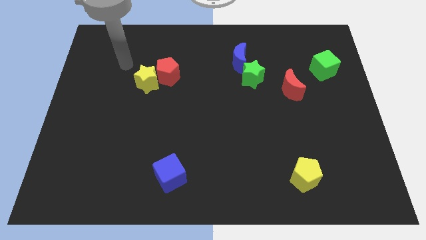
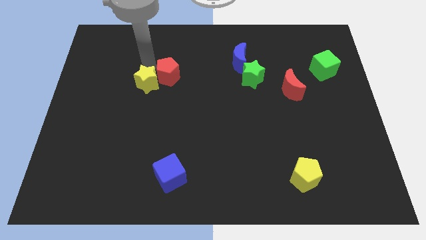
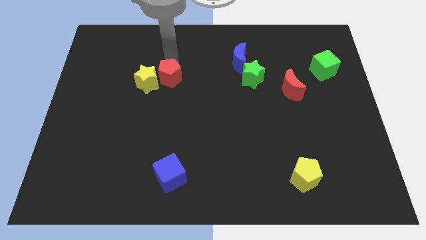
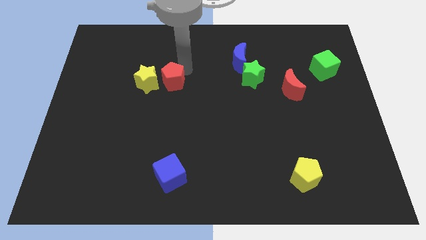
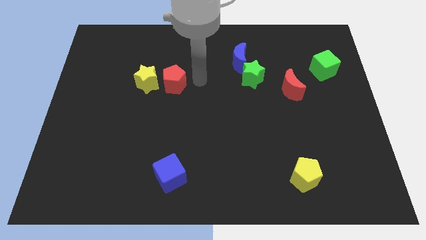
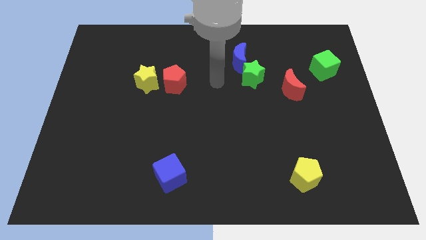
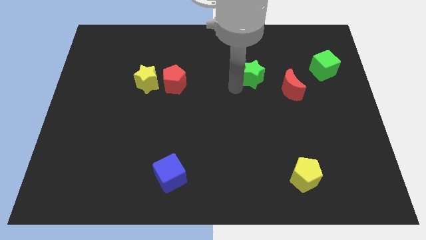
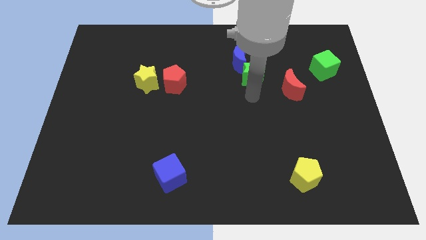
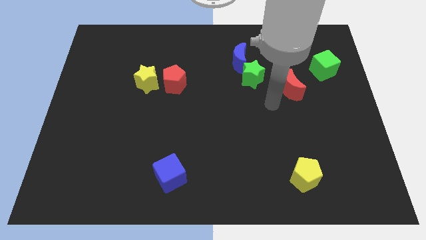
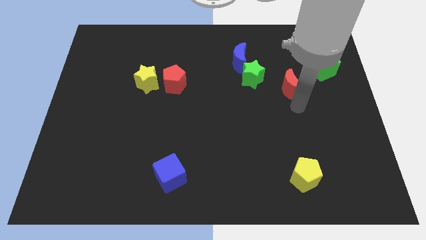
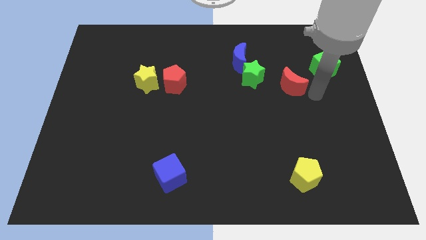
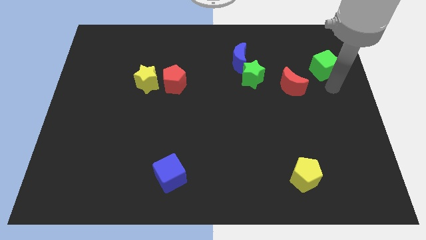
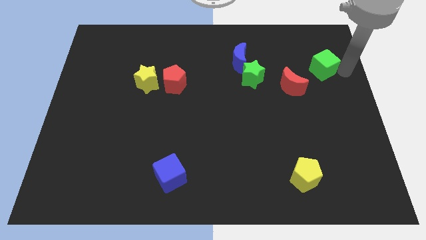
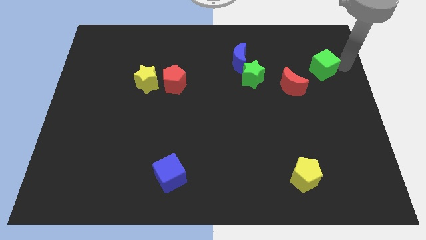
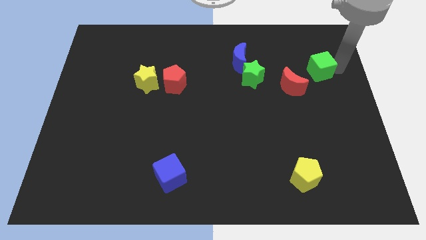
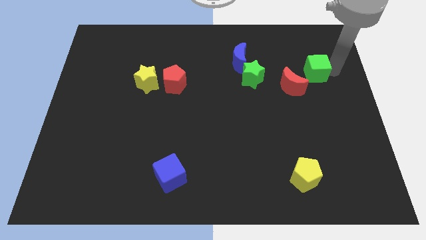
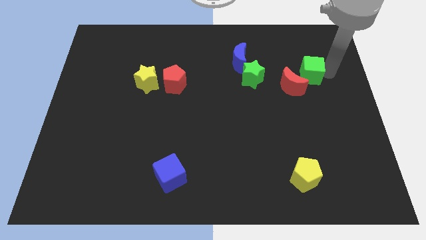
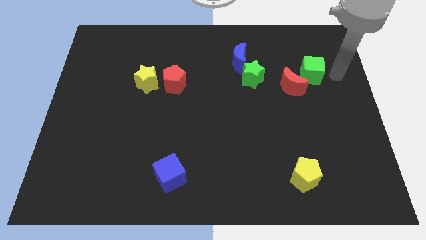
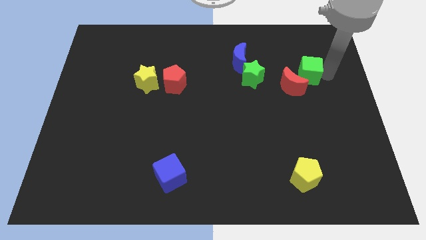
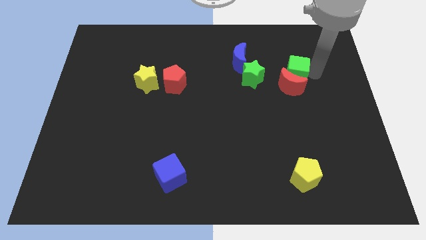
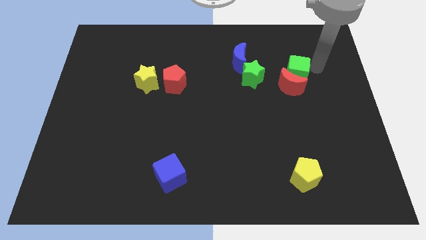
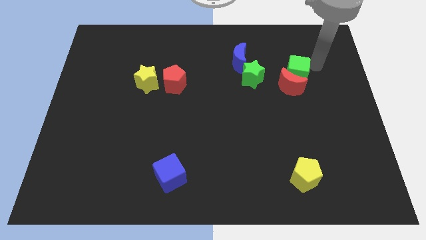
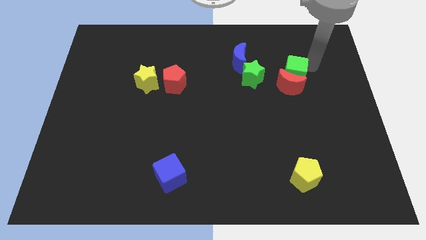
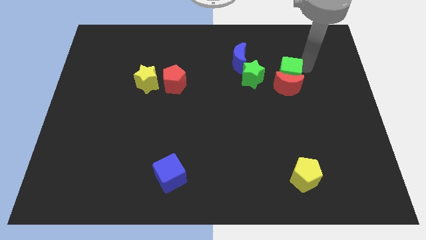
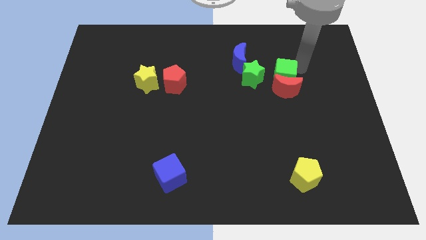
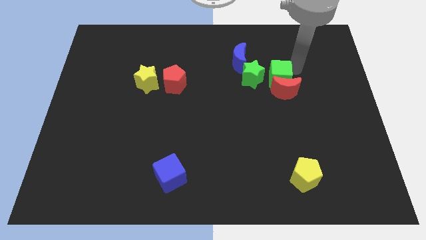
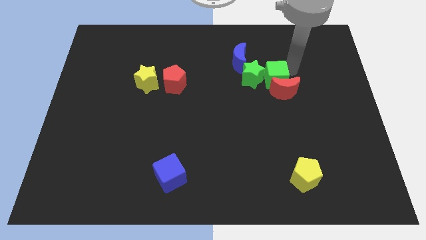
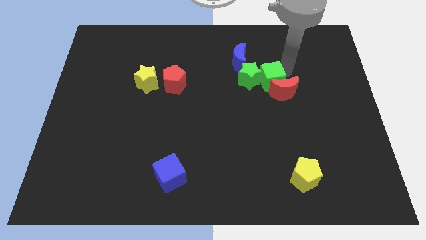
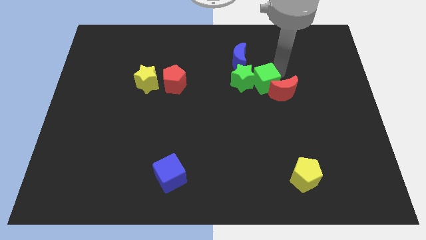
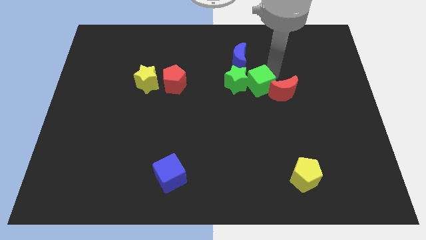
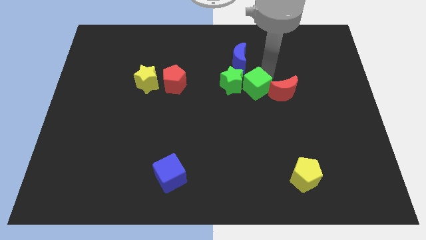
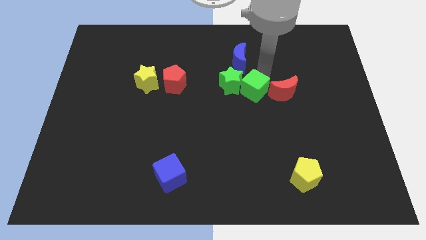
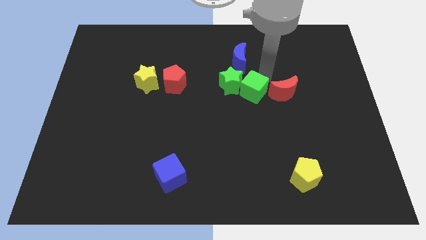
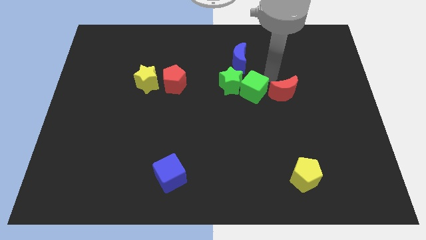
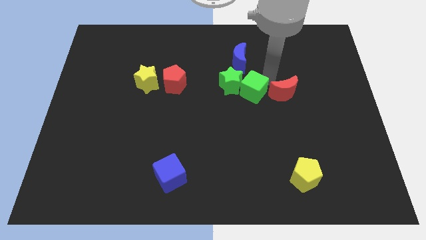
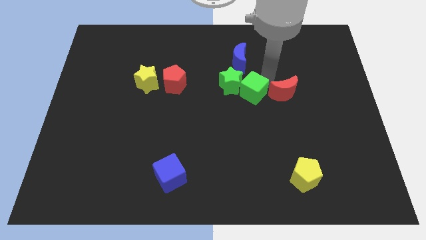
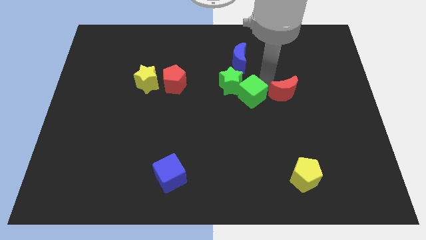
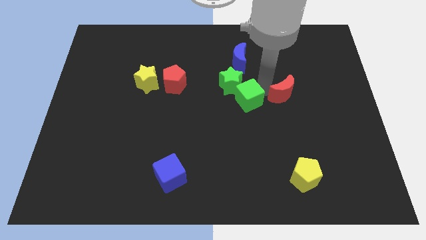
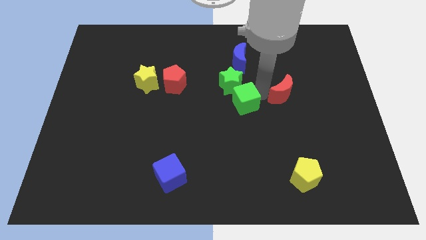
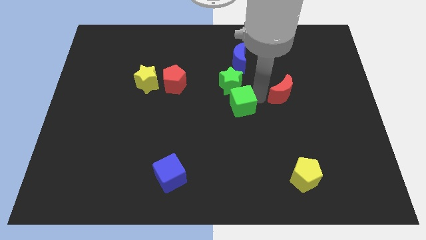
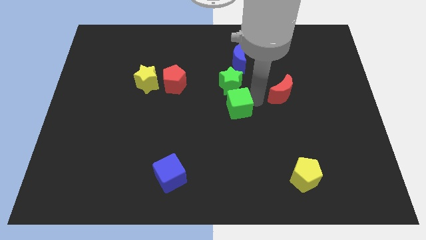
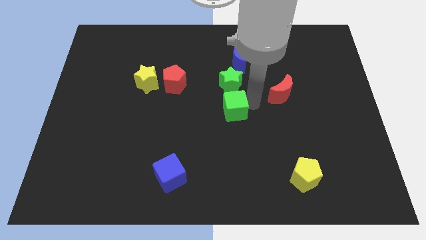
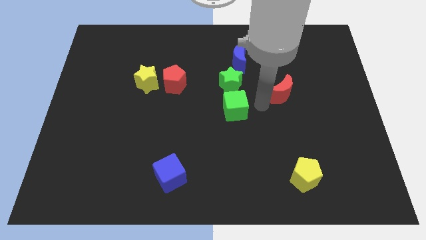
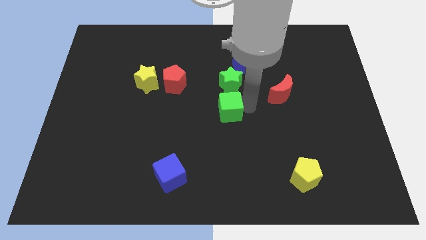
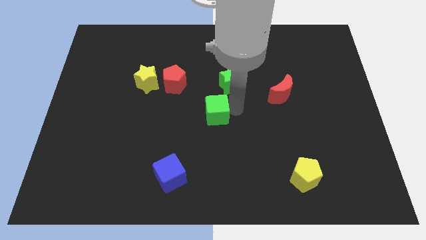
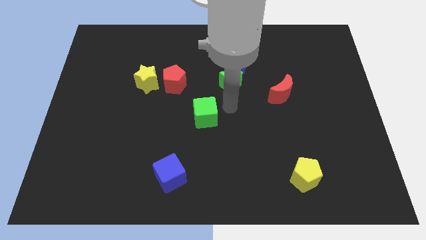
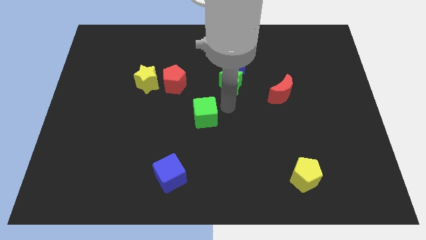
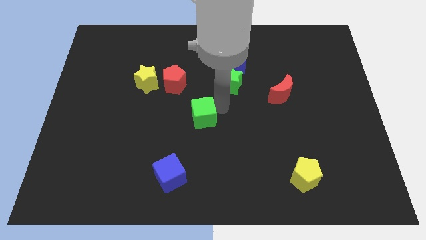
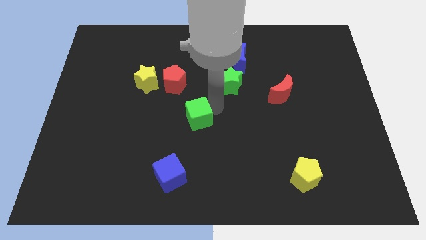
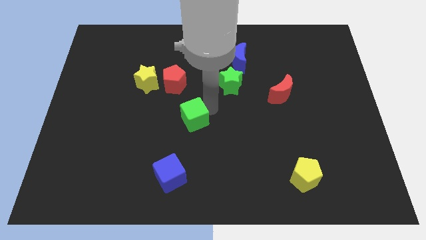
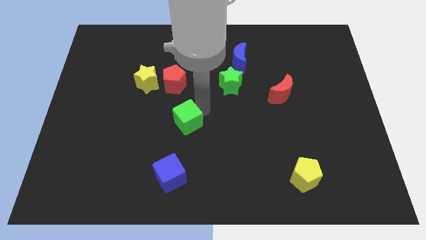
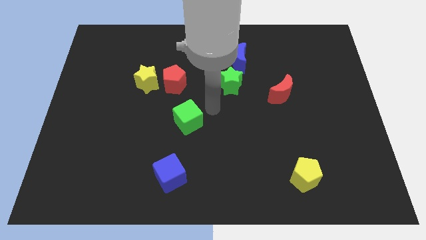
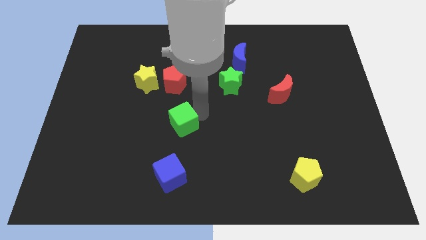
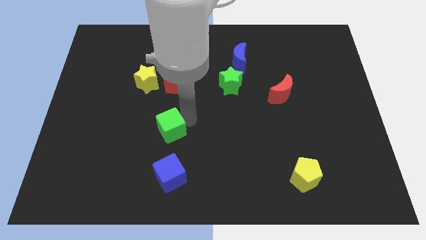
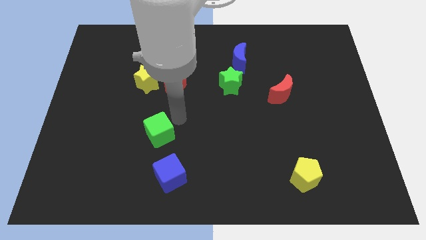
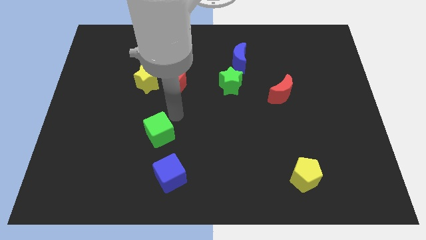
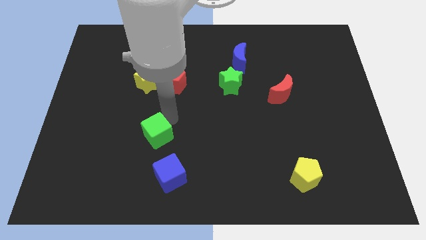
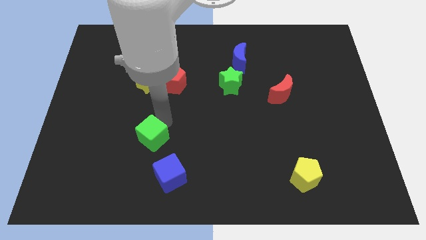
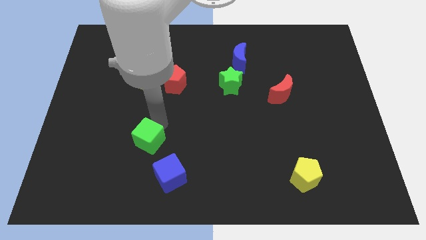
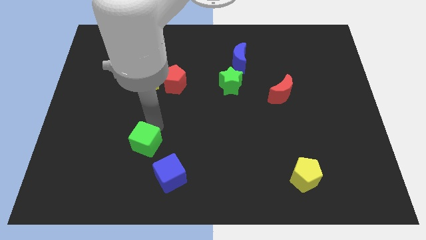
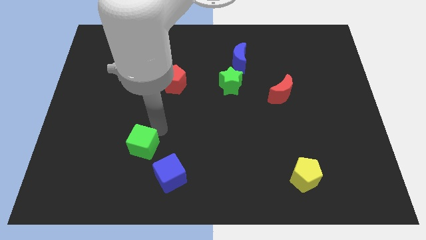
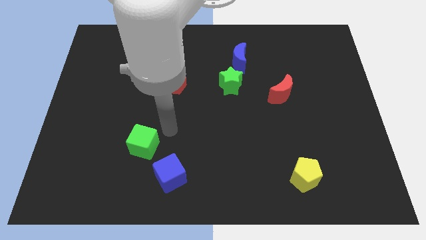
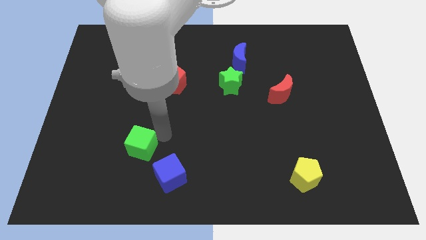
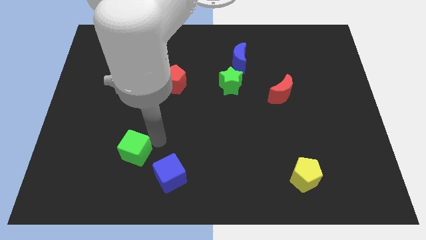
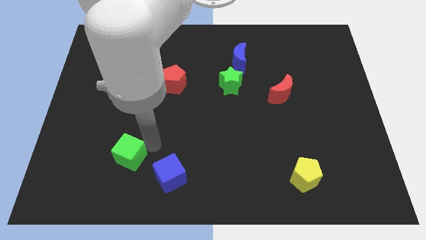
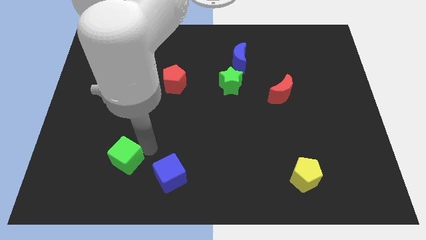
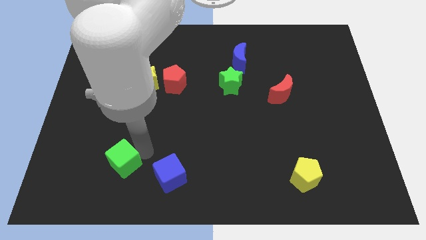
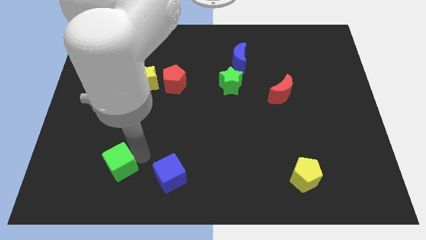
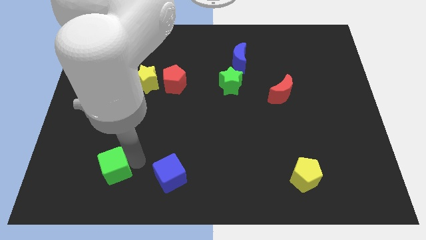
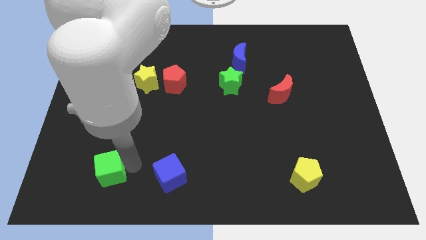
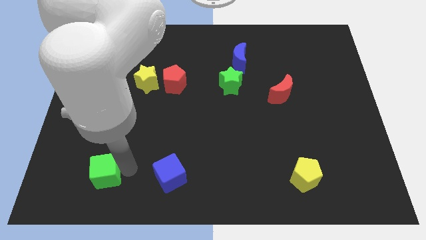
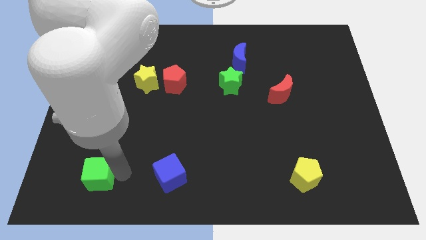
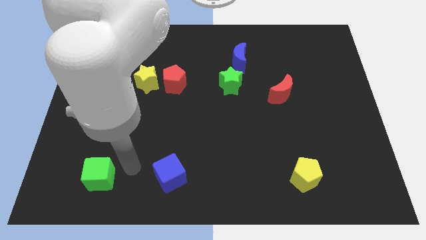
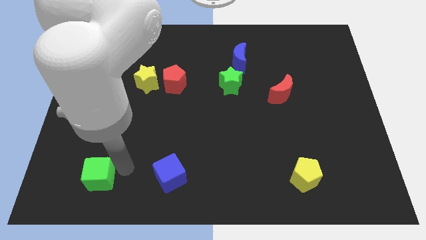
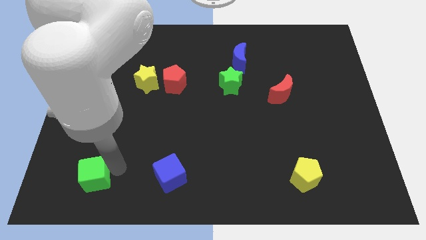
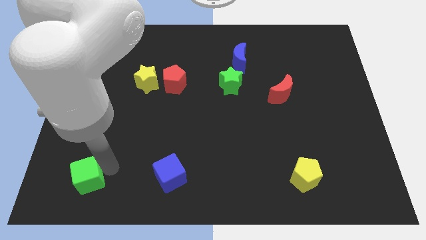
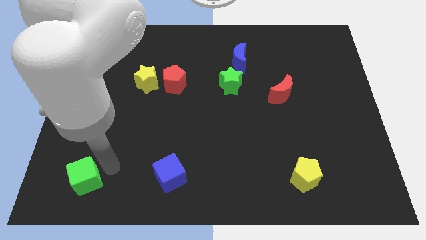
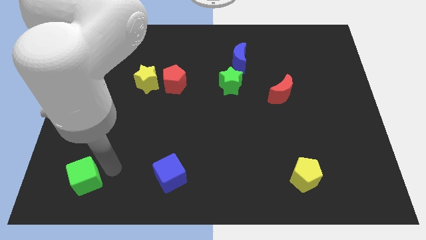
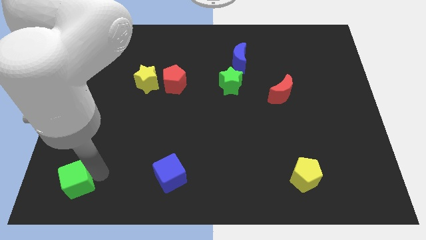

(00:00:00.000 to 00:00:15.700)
put the green cube to the lower left corner
